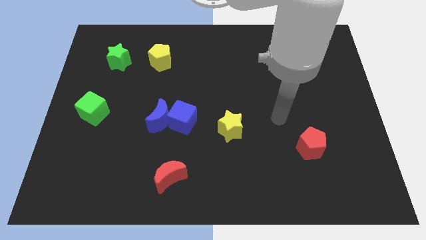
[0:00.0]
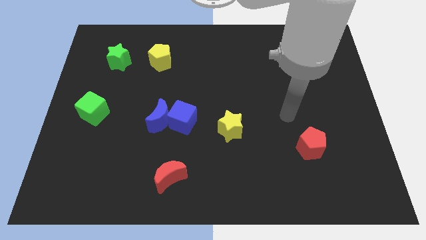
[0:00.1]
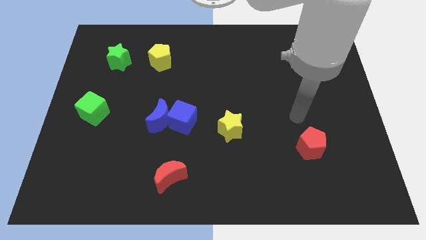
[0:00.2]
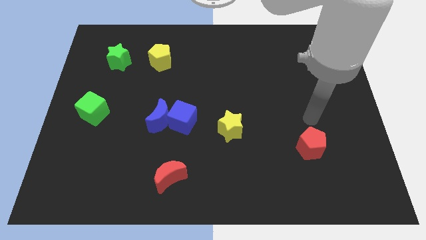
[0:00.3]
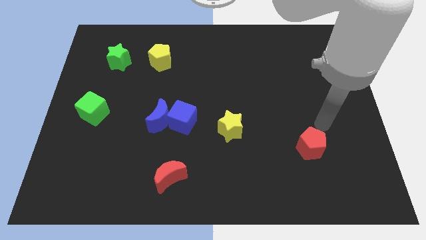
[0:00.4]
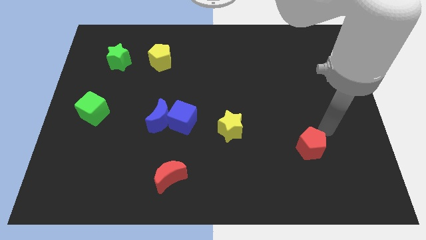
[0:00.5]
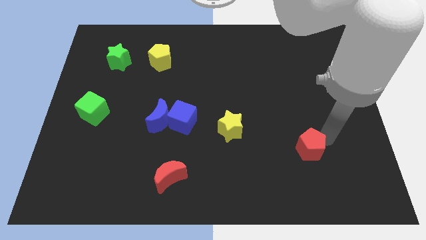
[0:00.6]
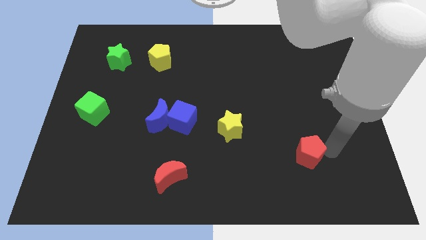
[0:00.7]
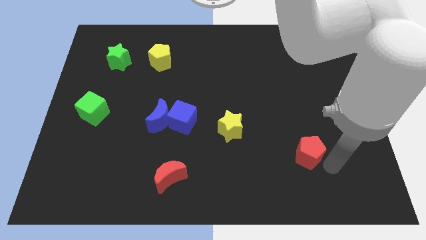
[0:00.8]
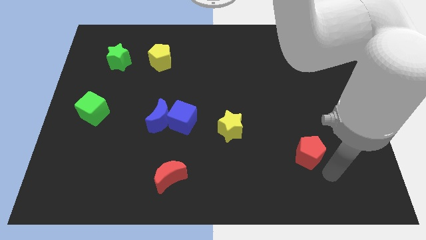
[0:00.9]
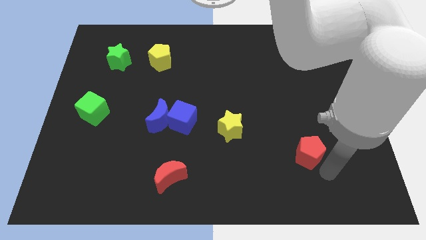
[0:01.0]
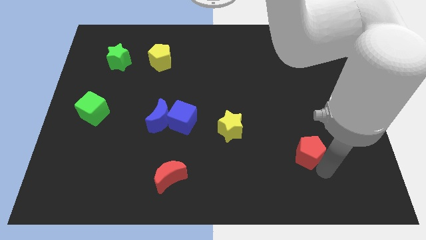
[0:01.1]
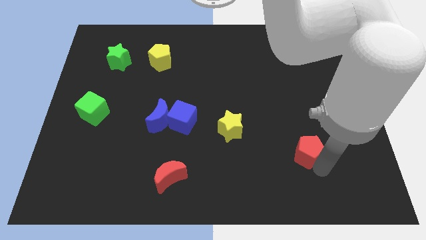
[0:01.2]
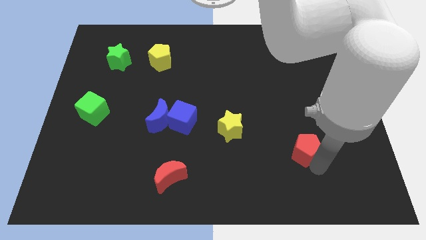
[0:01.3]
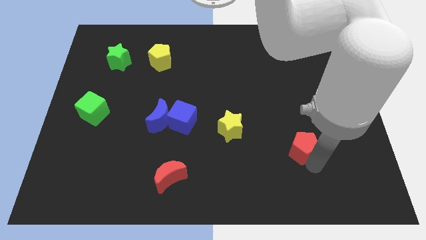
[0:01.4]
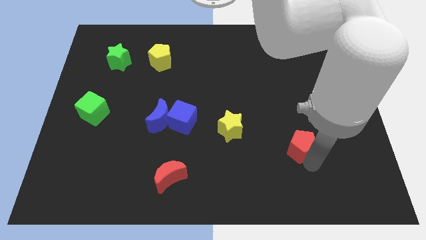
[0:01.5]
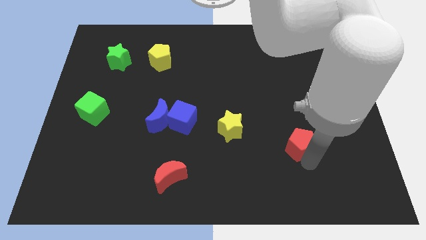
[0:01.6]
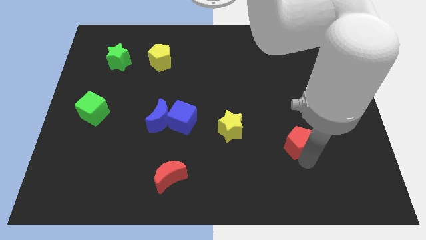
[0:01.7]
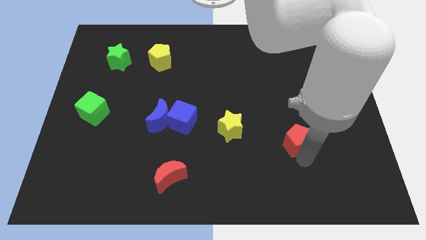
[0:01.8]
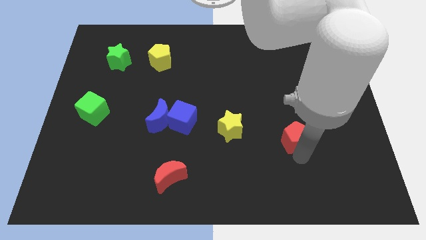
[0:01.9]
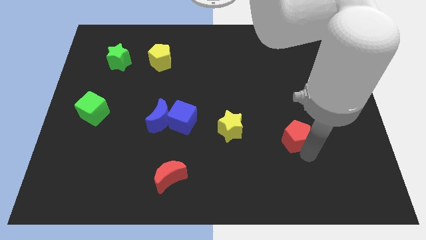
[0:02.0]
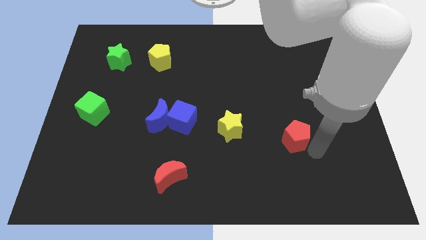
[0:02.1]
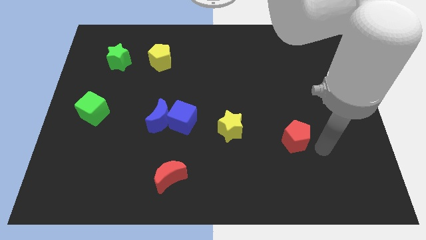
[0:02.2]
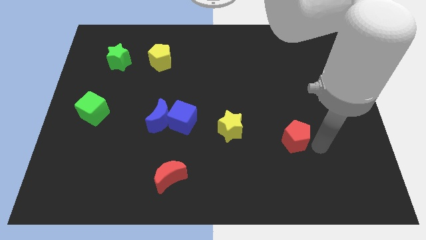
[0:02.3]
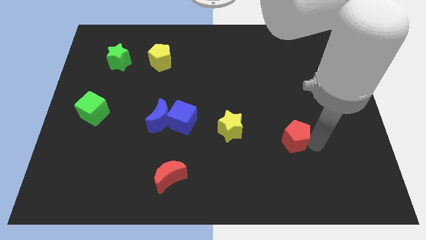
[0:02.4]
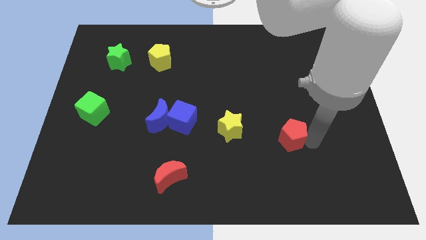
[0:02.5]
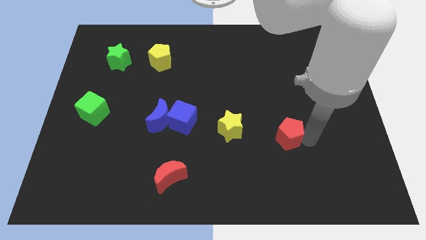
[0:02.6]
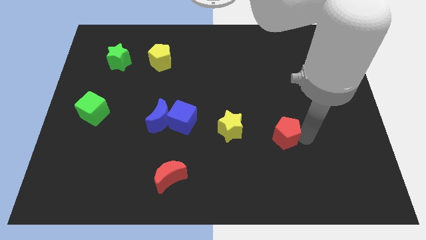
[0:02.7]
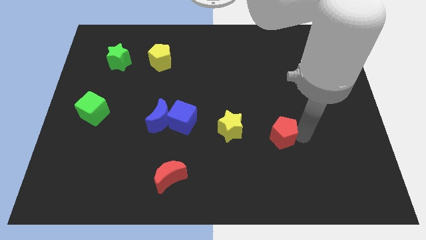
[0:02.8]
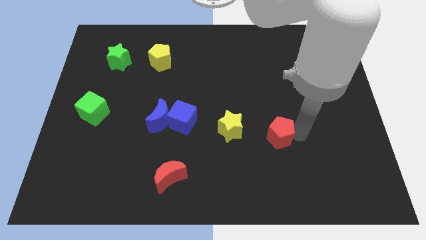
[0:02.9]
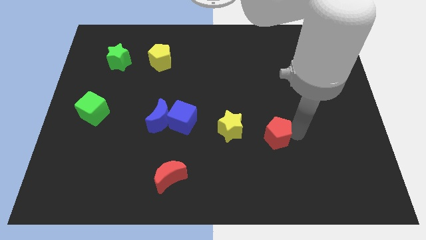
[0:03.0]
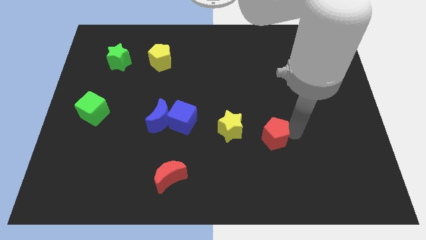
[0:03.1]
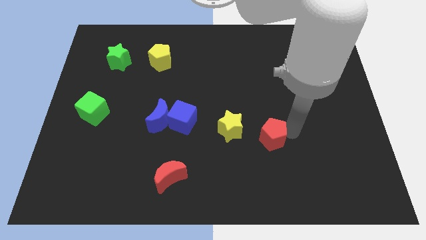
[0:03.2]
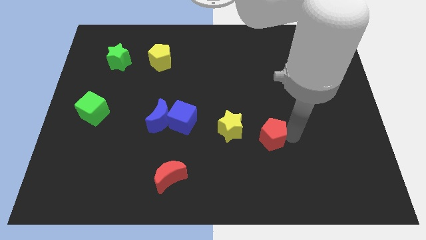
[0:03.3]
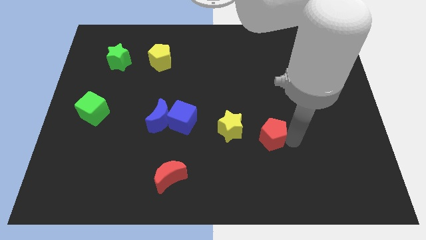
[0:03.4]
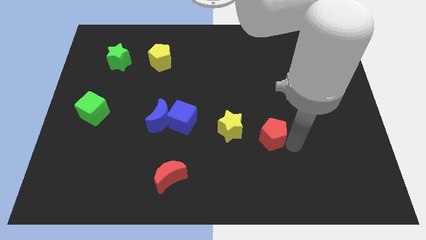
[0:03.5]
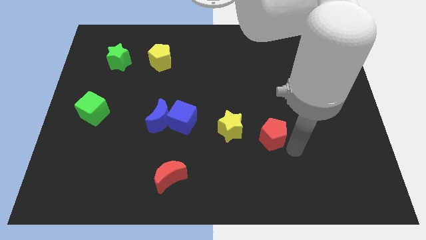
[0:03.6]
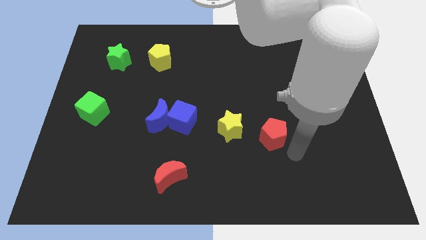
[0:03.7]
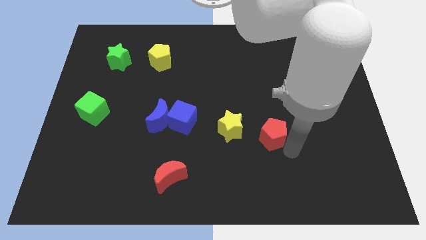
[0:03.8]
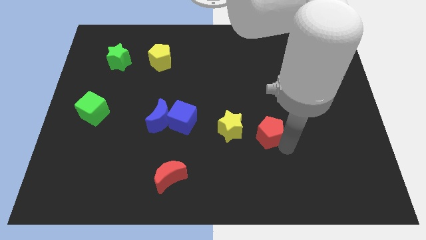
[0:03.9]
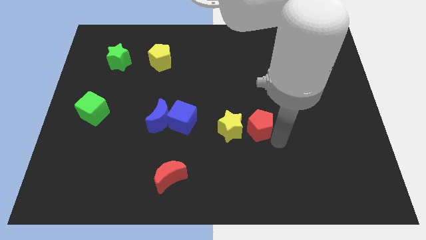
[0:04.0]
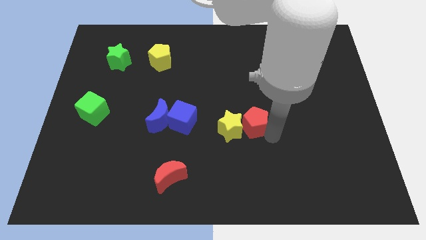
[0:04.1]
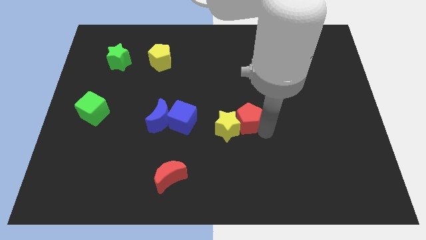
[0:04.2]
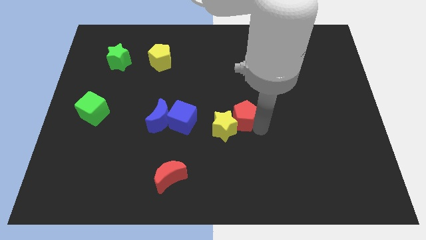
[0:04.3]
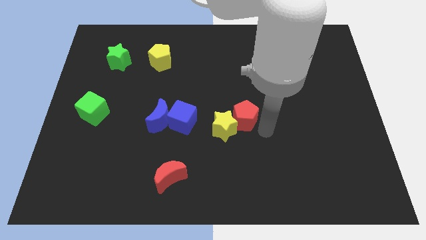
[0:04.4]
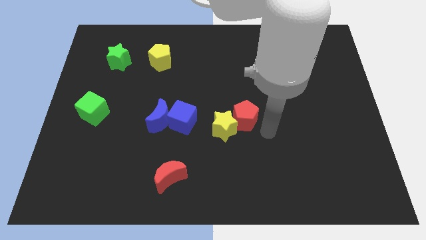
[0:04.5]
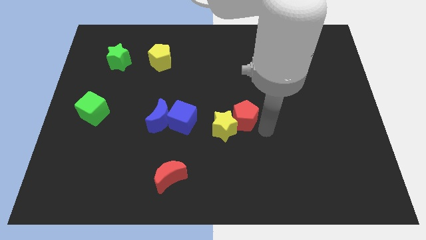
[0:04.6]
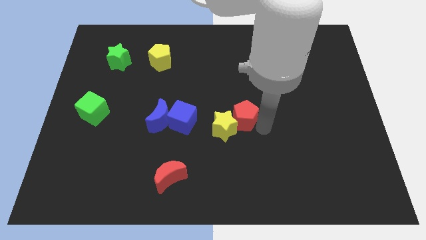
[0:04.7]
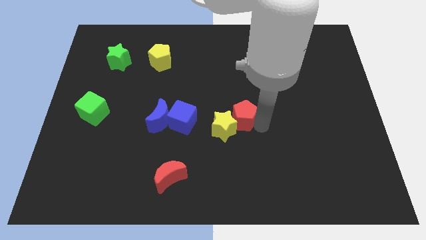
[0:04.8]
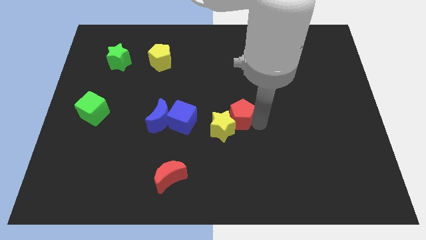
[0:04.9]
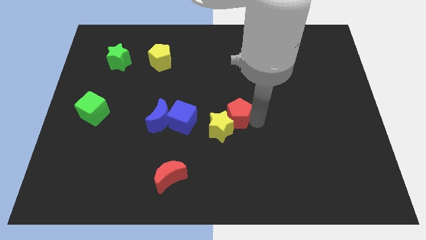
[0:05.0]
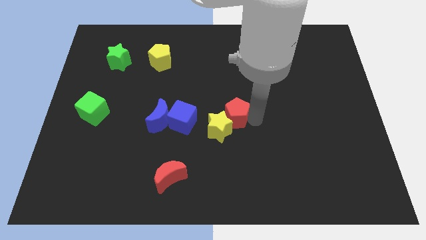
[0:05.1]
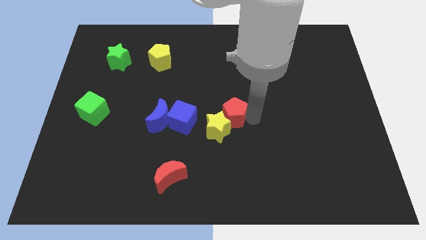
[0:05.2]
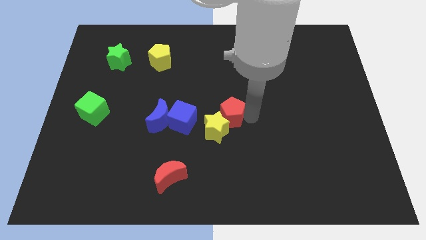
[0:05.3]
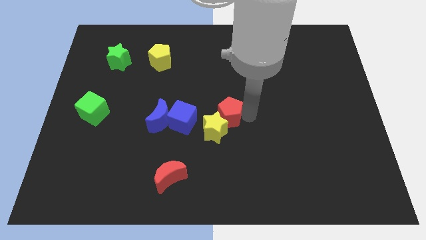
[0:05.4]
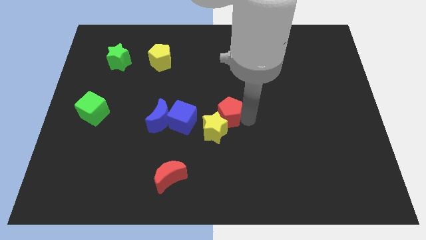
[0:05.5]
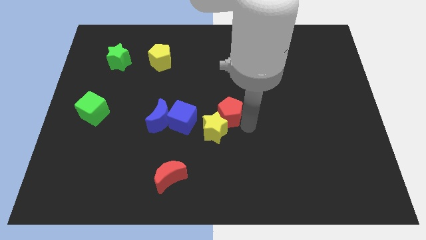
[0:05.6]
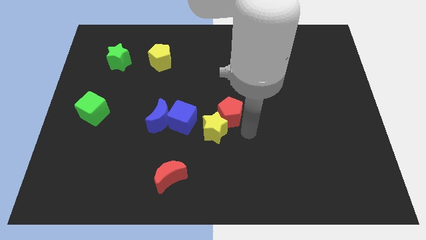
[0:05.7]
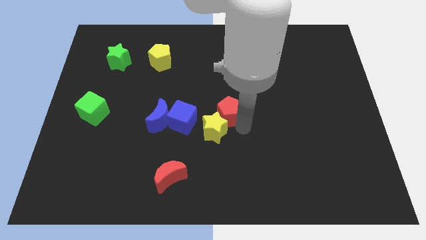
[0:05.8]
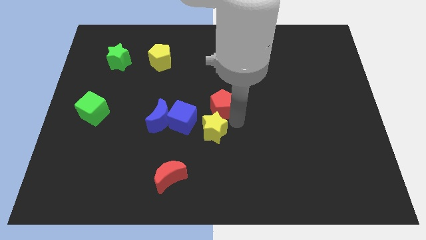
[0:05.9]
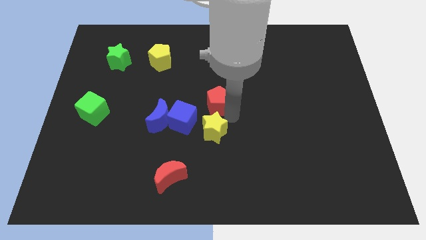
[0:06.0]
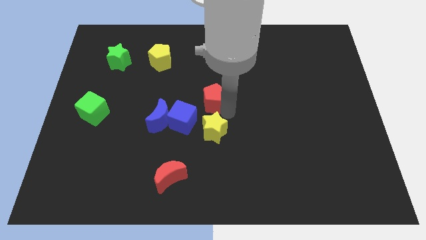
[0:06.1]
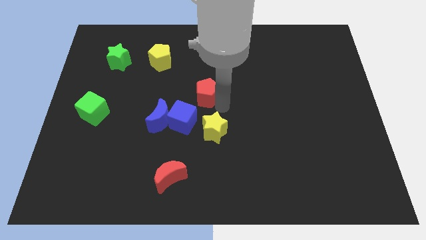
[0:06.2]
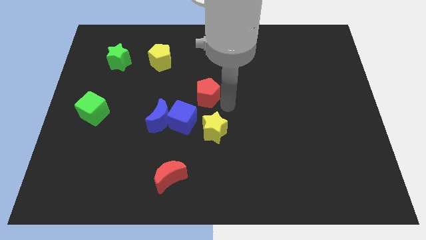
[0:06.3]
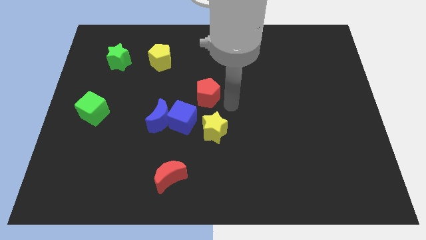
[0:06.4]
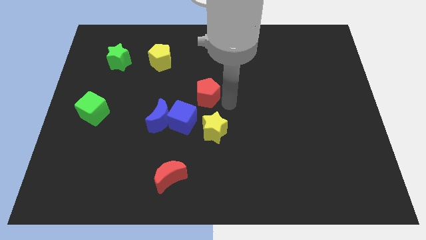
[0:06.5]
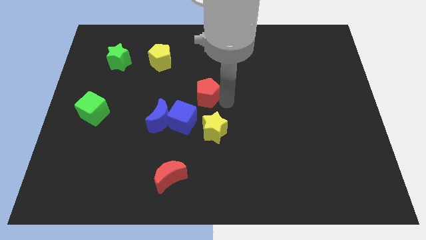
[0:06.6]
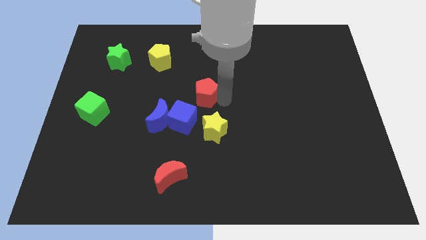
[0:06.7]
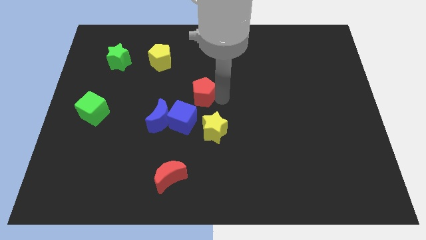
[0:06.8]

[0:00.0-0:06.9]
move the red pentagon to the top of the blue cube
